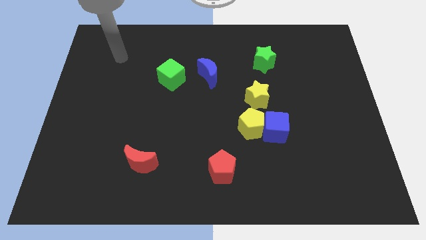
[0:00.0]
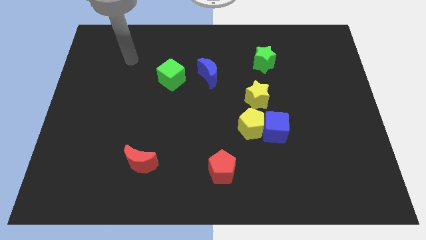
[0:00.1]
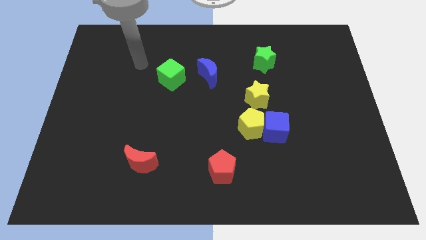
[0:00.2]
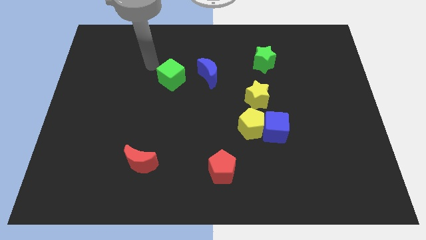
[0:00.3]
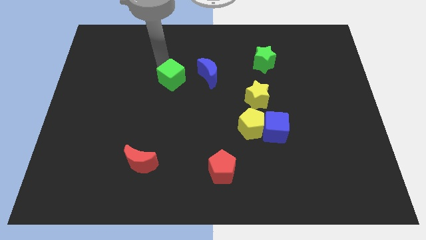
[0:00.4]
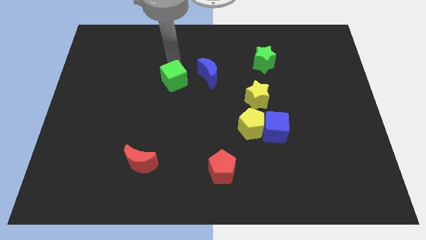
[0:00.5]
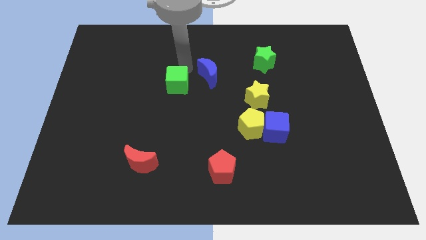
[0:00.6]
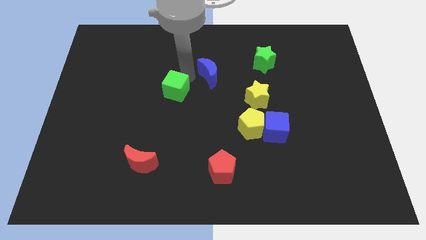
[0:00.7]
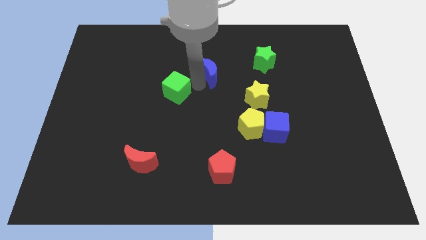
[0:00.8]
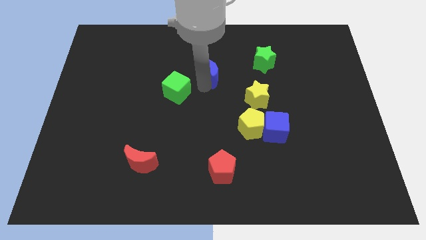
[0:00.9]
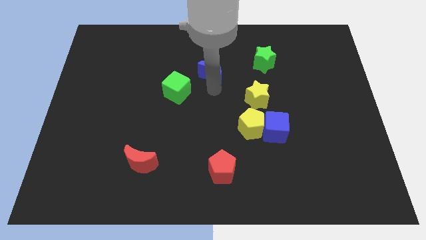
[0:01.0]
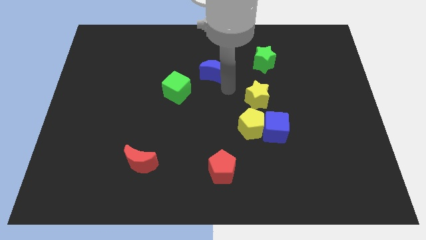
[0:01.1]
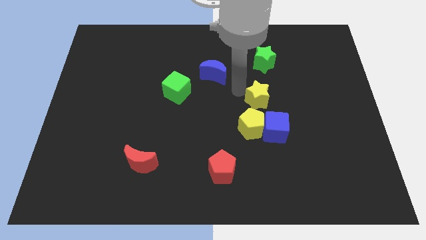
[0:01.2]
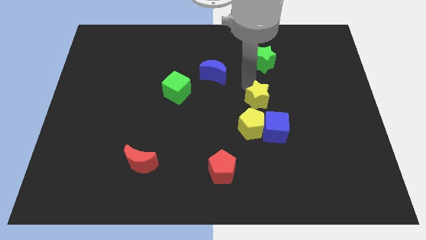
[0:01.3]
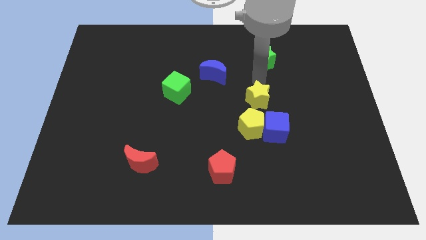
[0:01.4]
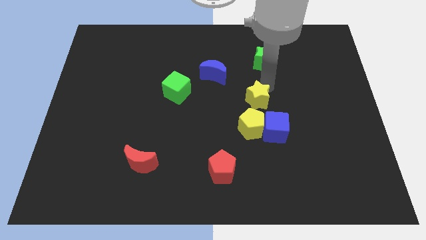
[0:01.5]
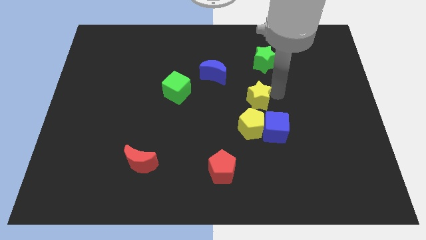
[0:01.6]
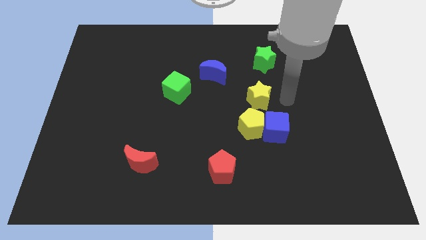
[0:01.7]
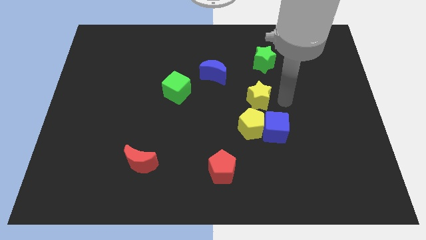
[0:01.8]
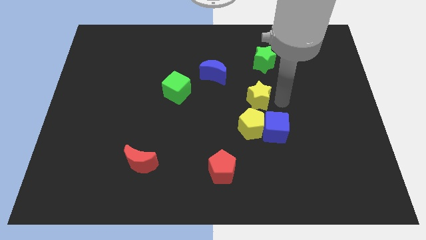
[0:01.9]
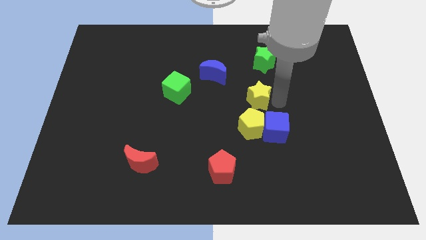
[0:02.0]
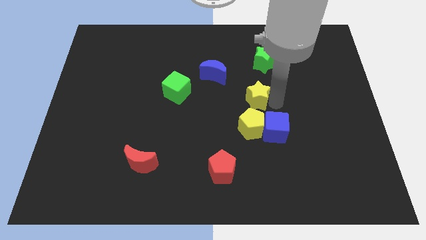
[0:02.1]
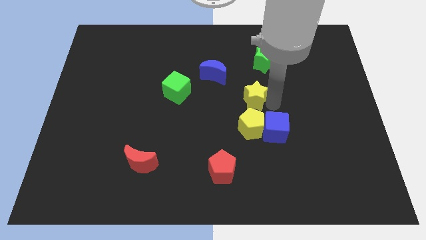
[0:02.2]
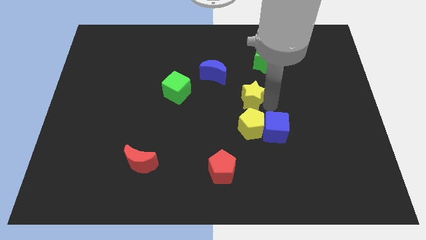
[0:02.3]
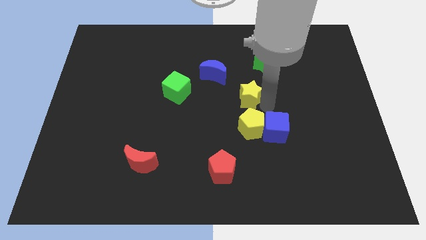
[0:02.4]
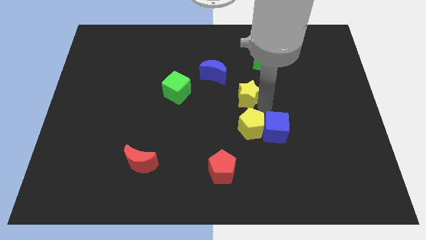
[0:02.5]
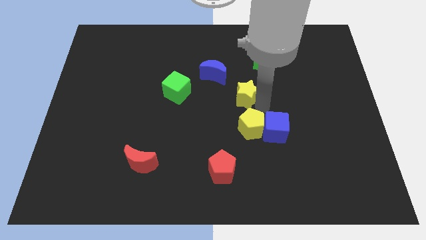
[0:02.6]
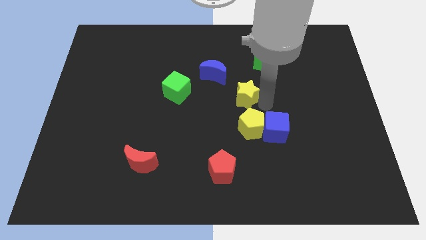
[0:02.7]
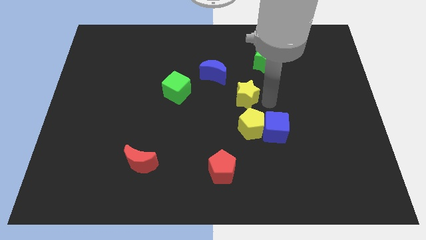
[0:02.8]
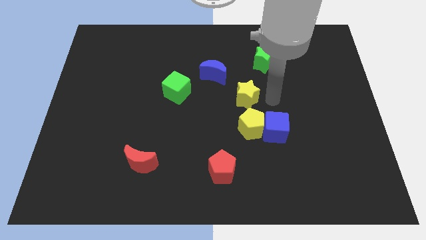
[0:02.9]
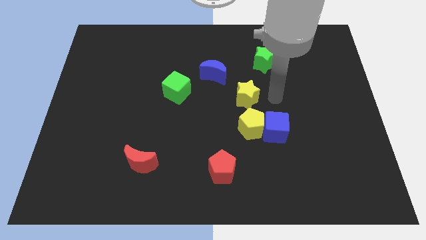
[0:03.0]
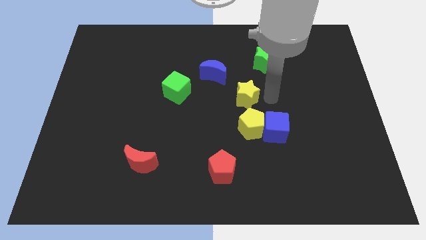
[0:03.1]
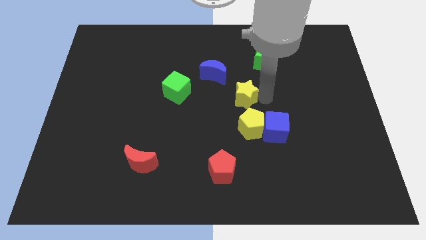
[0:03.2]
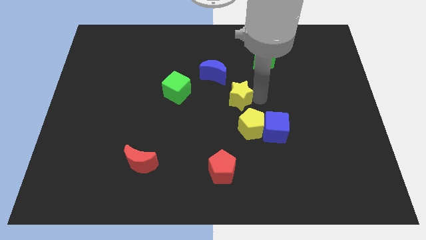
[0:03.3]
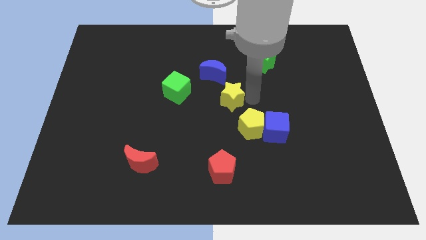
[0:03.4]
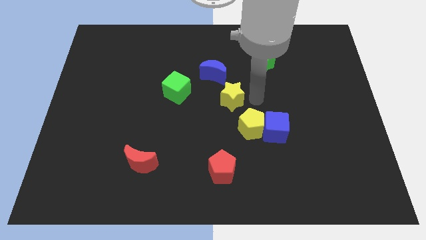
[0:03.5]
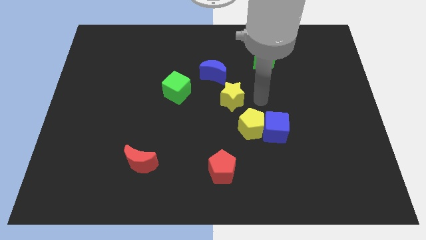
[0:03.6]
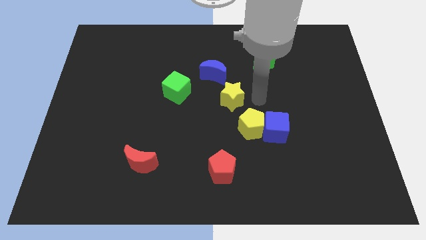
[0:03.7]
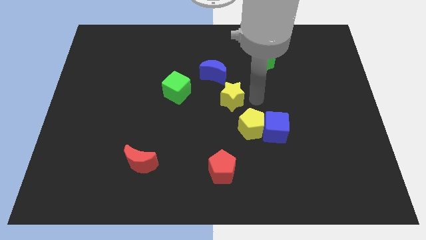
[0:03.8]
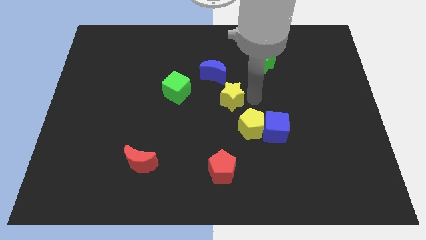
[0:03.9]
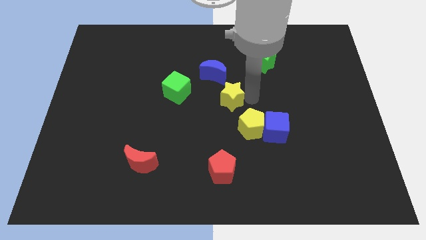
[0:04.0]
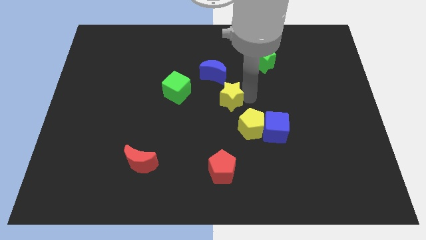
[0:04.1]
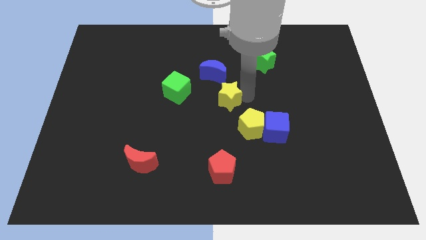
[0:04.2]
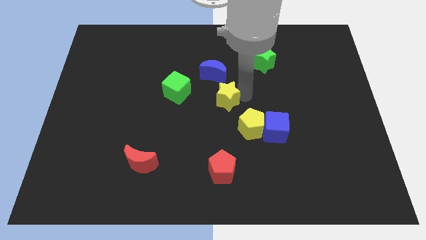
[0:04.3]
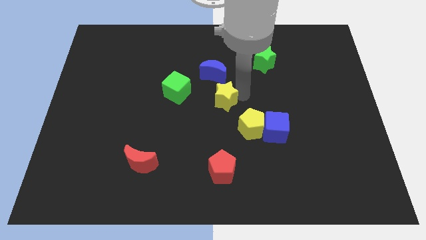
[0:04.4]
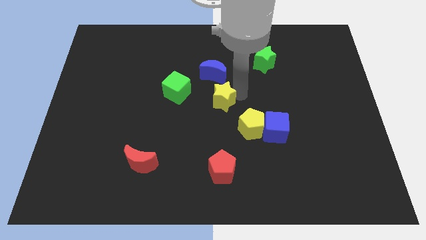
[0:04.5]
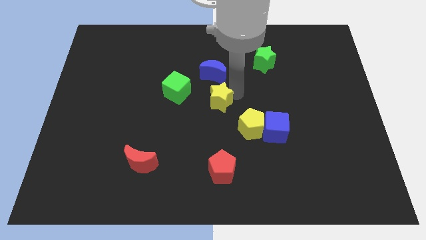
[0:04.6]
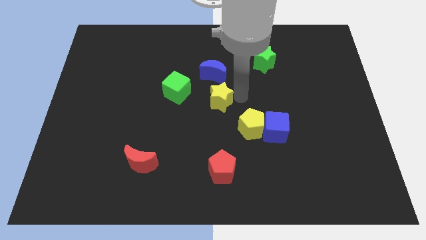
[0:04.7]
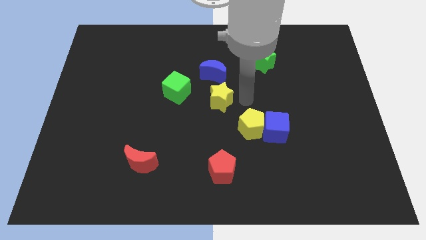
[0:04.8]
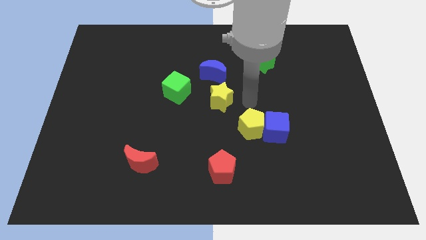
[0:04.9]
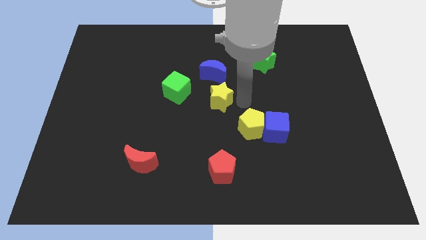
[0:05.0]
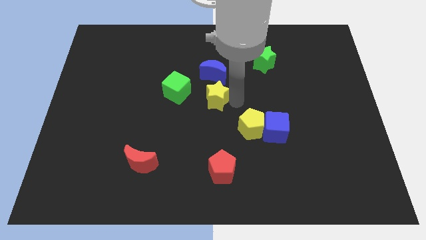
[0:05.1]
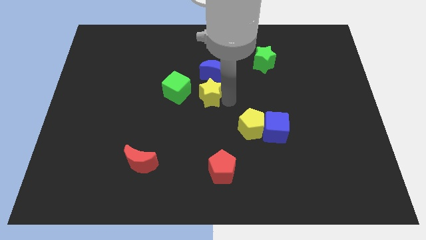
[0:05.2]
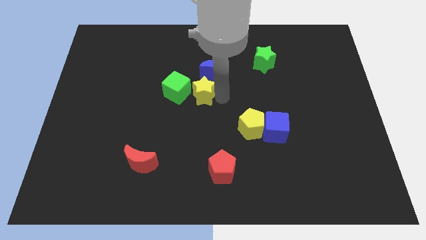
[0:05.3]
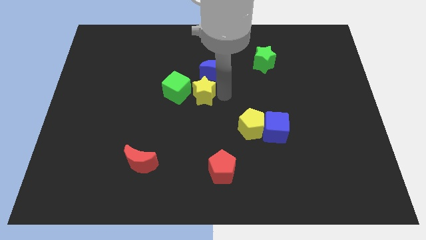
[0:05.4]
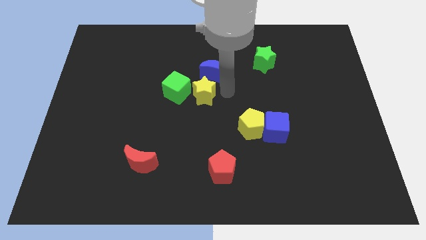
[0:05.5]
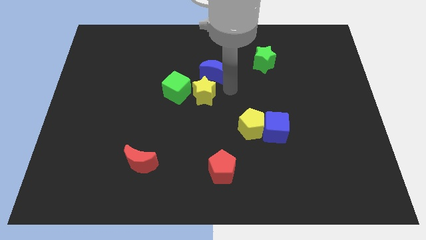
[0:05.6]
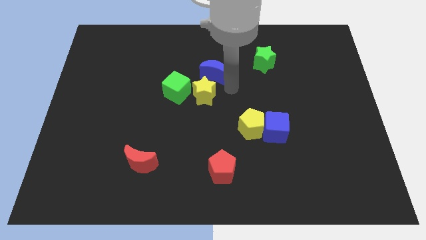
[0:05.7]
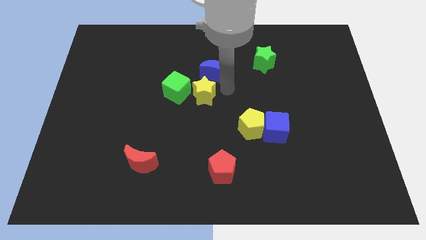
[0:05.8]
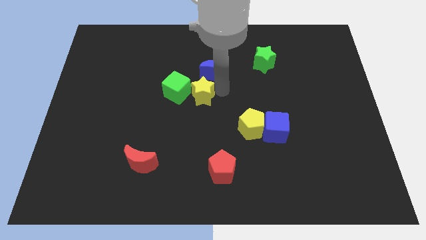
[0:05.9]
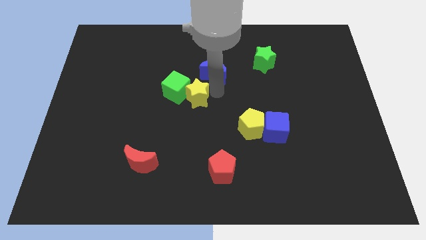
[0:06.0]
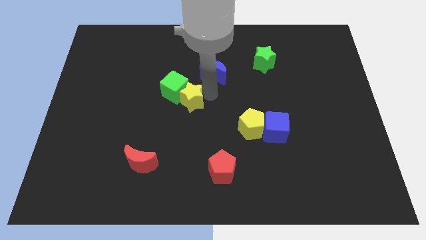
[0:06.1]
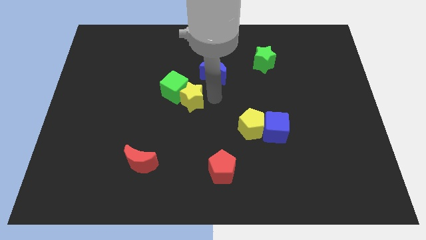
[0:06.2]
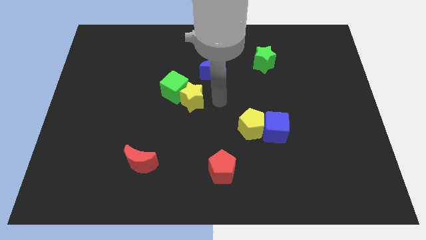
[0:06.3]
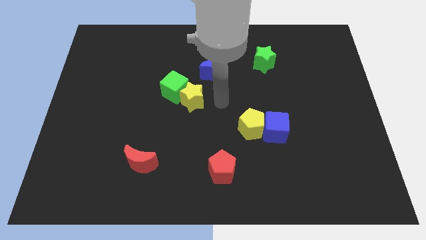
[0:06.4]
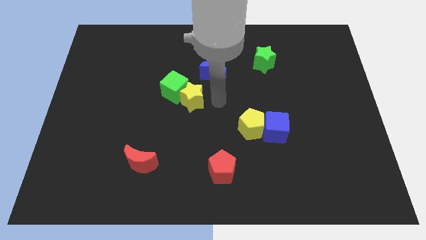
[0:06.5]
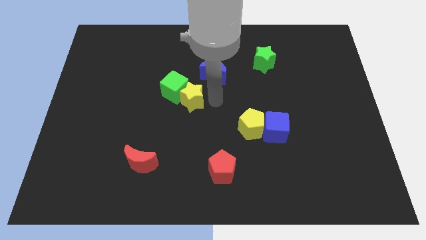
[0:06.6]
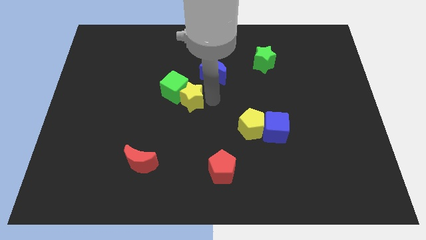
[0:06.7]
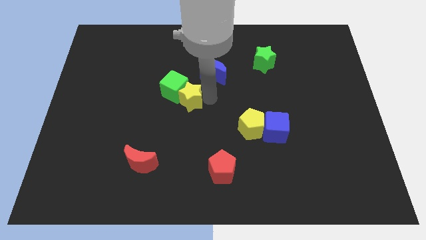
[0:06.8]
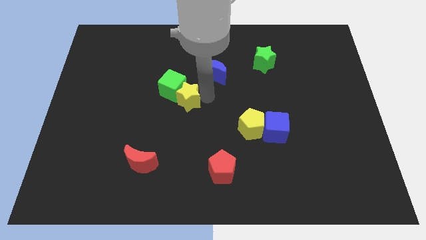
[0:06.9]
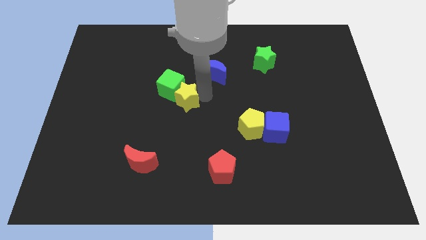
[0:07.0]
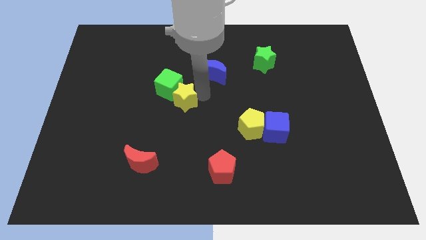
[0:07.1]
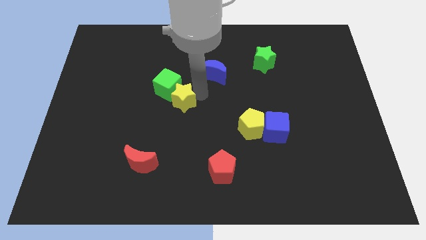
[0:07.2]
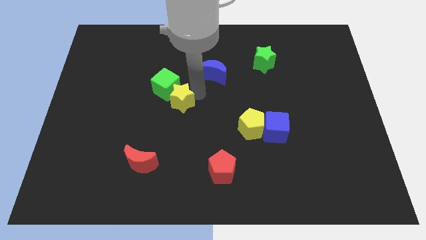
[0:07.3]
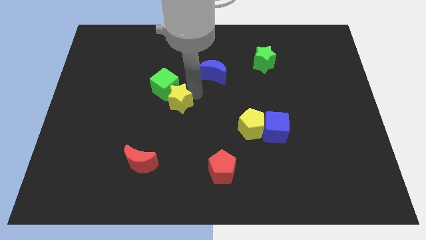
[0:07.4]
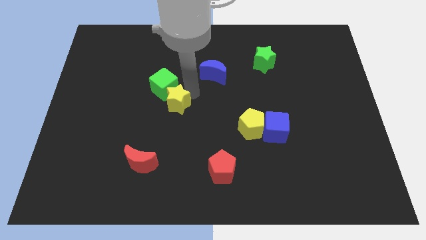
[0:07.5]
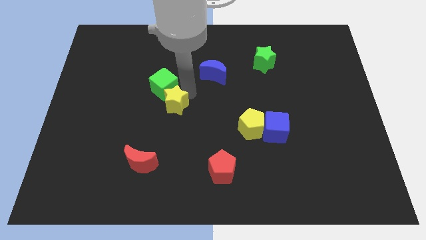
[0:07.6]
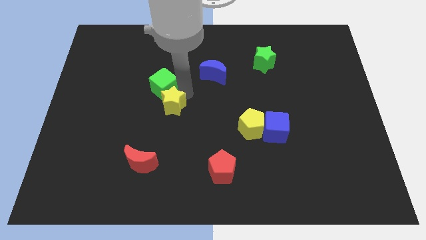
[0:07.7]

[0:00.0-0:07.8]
push the yellow star to the left

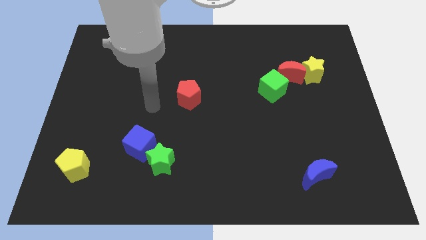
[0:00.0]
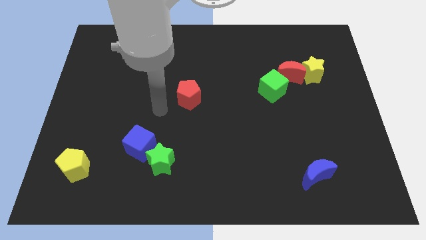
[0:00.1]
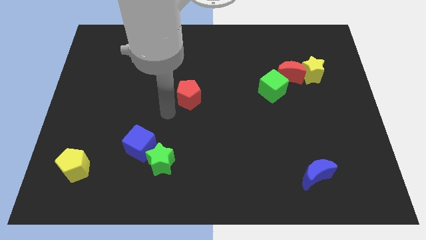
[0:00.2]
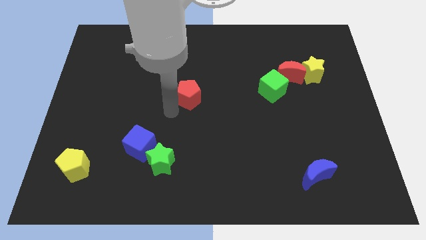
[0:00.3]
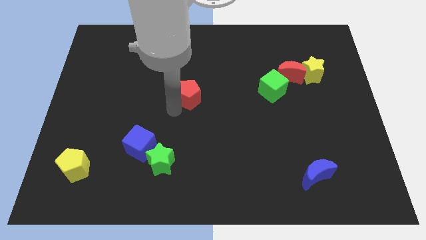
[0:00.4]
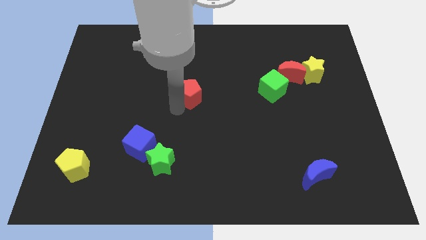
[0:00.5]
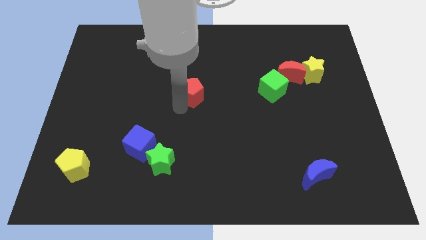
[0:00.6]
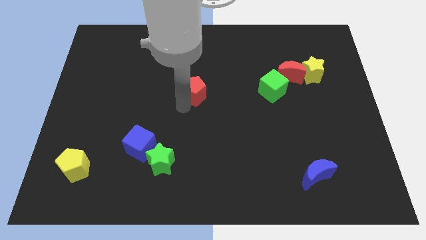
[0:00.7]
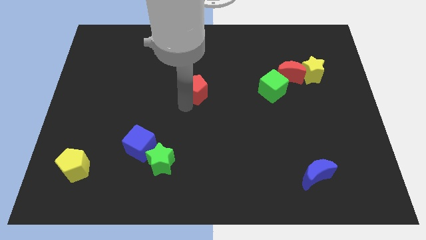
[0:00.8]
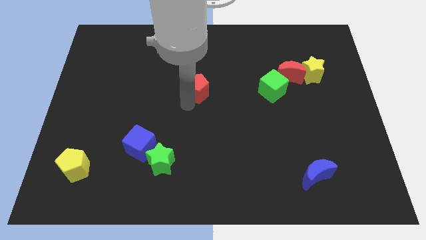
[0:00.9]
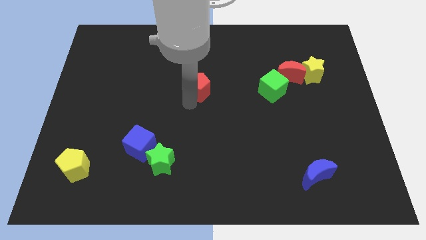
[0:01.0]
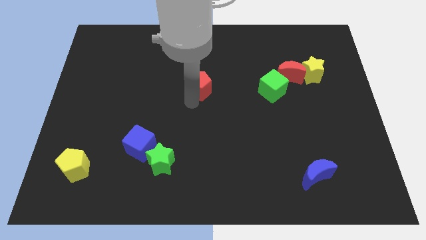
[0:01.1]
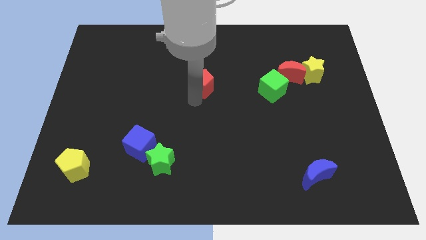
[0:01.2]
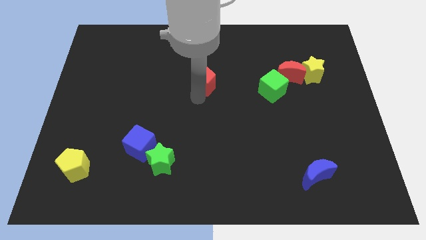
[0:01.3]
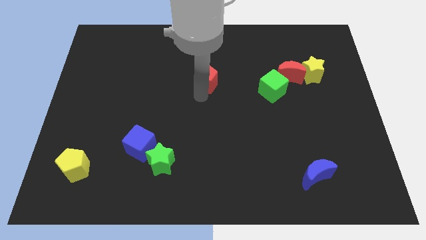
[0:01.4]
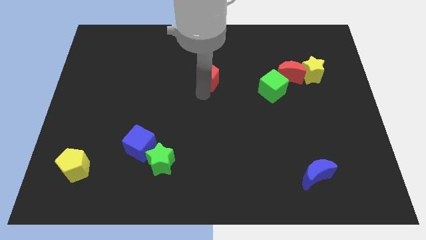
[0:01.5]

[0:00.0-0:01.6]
push the red pentagon up and then to the right a little bit
